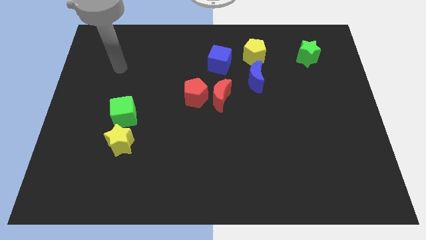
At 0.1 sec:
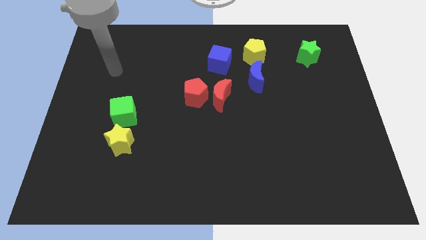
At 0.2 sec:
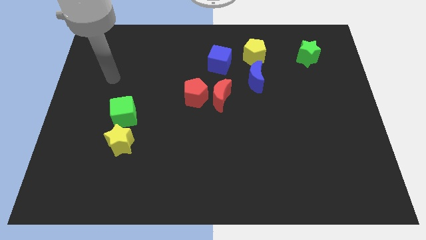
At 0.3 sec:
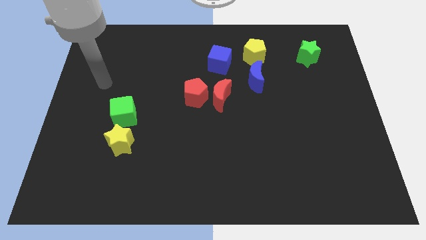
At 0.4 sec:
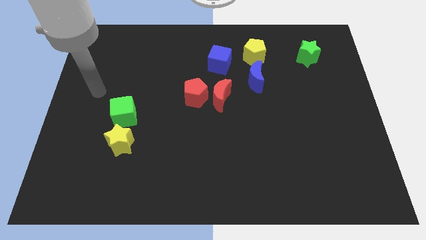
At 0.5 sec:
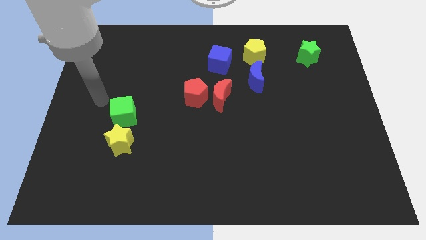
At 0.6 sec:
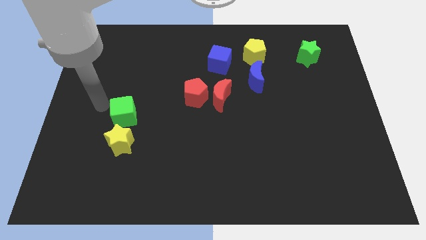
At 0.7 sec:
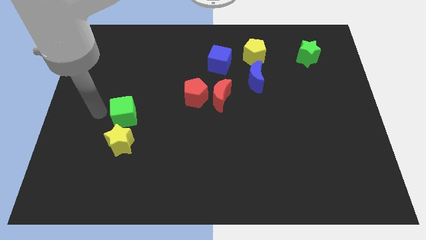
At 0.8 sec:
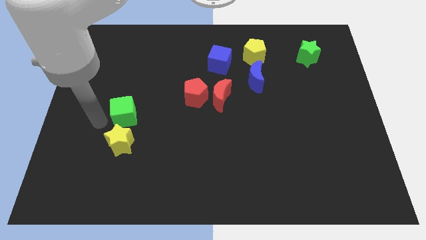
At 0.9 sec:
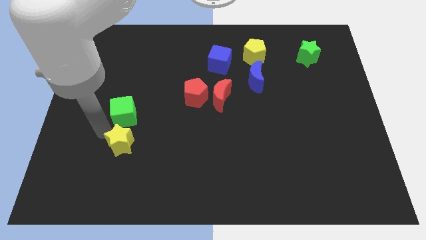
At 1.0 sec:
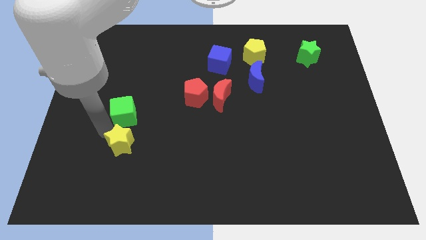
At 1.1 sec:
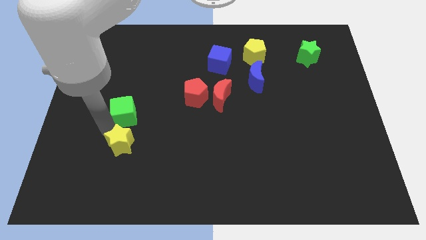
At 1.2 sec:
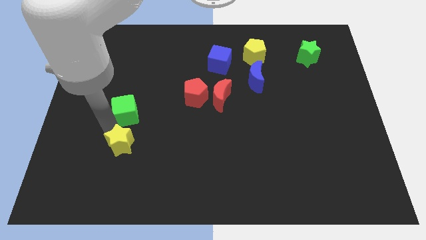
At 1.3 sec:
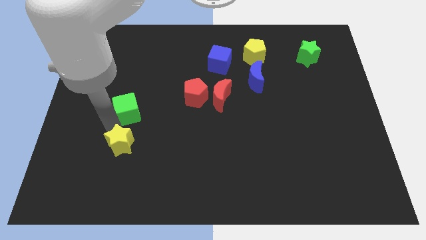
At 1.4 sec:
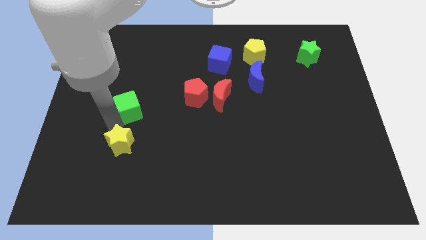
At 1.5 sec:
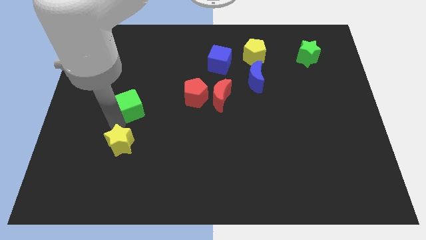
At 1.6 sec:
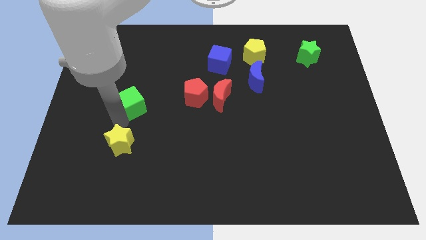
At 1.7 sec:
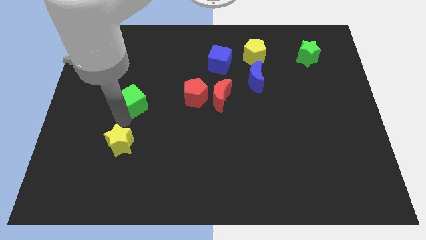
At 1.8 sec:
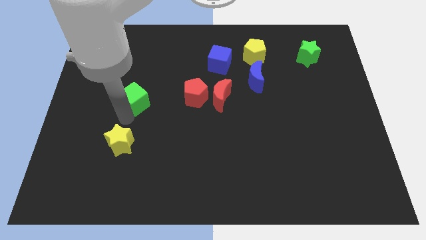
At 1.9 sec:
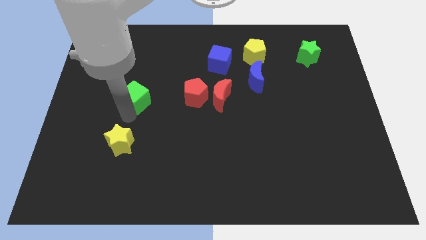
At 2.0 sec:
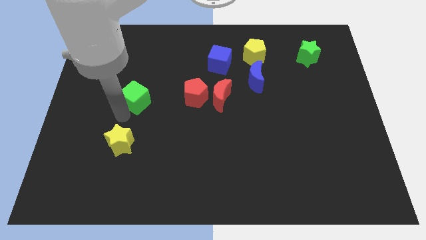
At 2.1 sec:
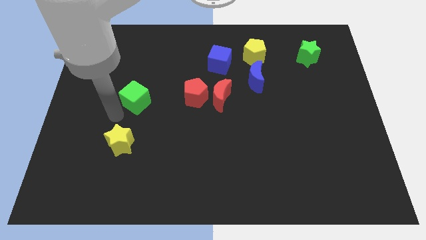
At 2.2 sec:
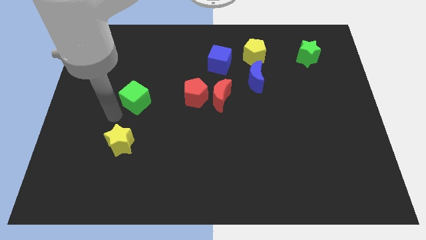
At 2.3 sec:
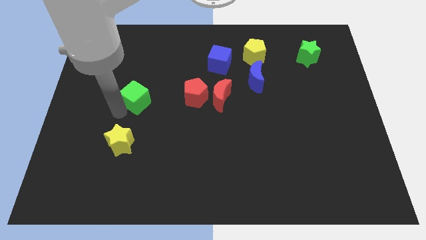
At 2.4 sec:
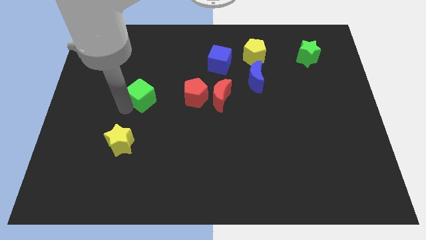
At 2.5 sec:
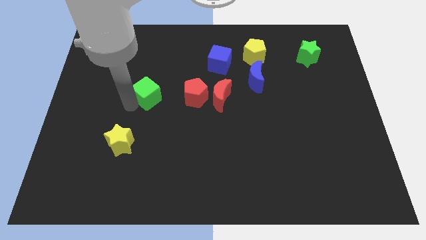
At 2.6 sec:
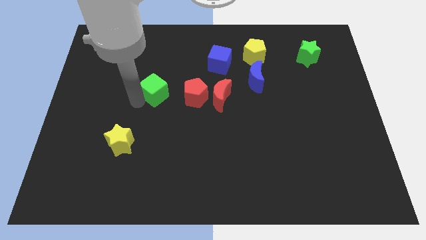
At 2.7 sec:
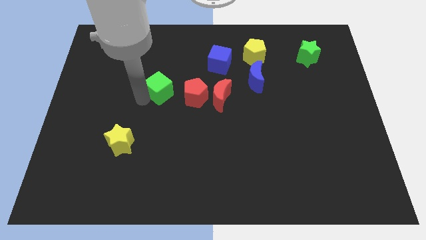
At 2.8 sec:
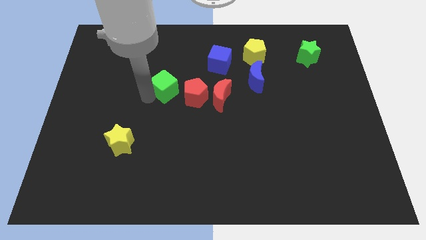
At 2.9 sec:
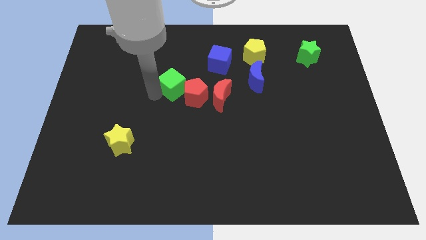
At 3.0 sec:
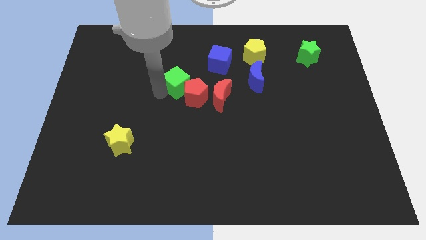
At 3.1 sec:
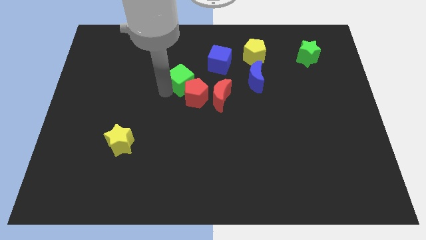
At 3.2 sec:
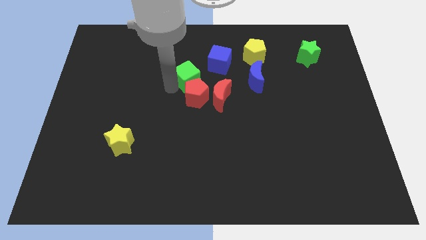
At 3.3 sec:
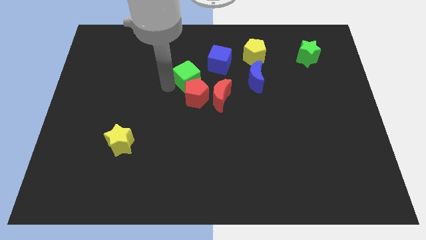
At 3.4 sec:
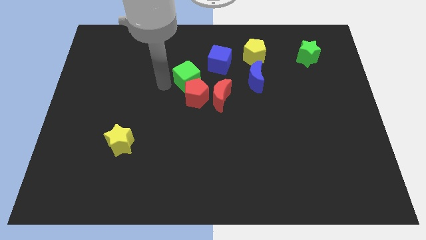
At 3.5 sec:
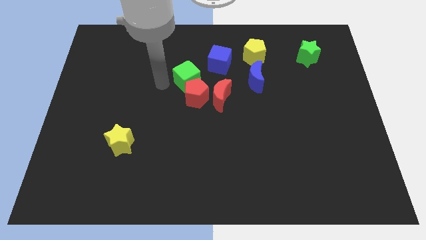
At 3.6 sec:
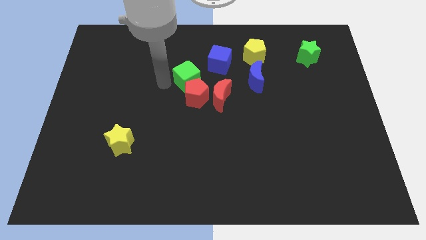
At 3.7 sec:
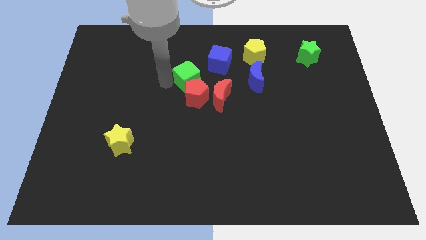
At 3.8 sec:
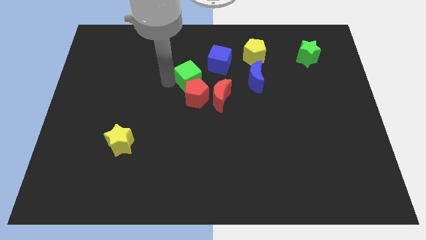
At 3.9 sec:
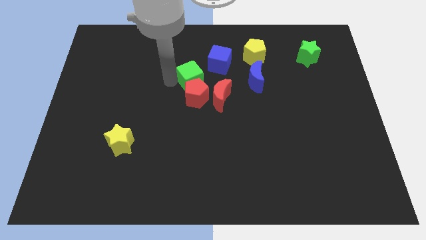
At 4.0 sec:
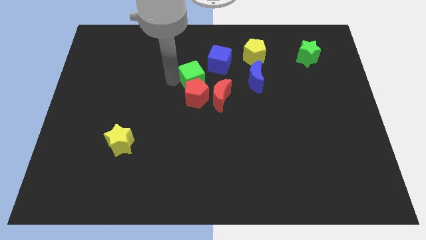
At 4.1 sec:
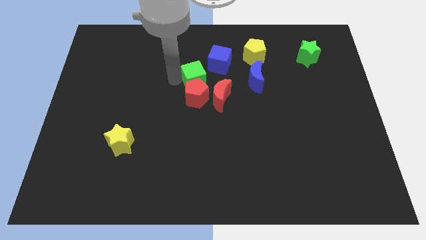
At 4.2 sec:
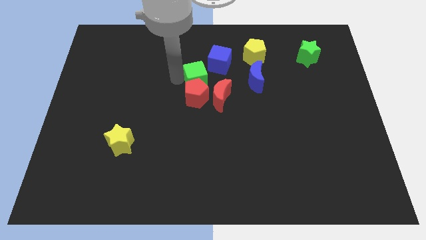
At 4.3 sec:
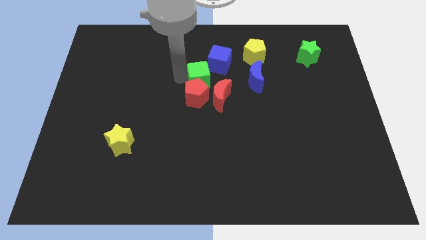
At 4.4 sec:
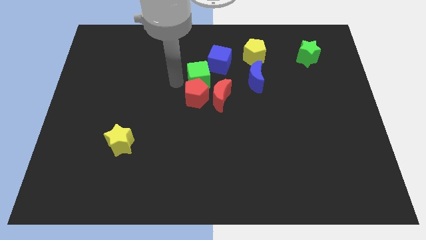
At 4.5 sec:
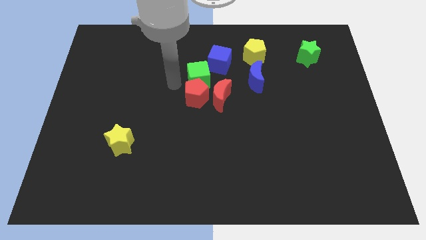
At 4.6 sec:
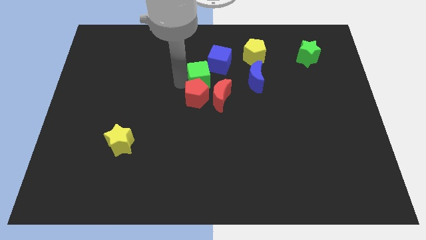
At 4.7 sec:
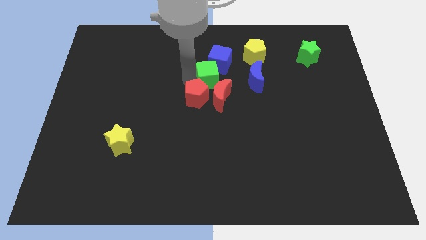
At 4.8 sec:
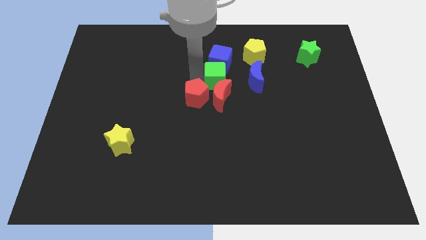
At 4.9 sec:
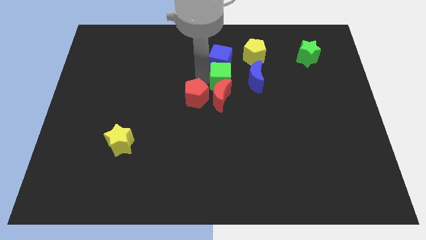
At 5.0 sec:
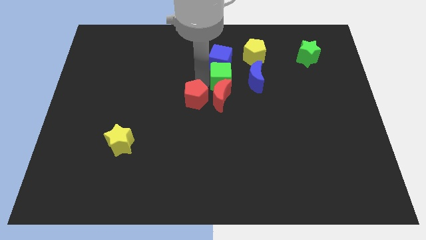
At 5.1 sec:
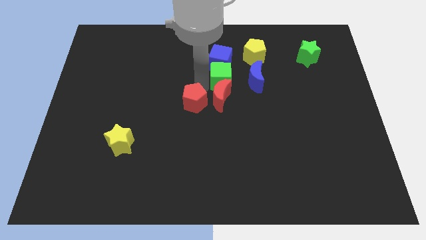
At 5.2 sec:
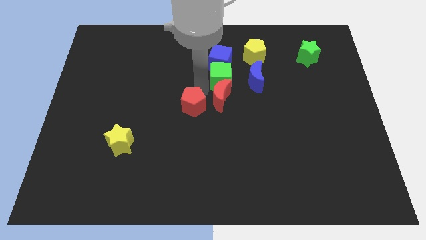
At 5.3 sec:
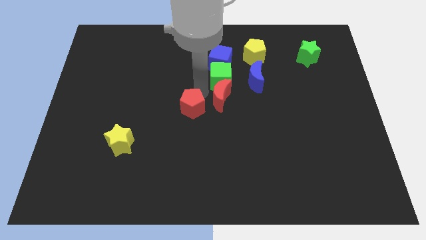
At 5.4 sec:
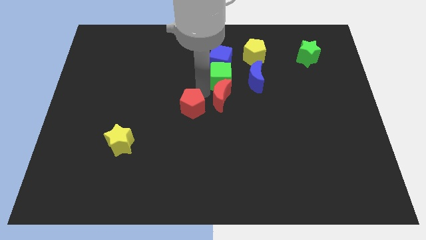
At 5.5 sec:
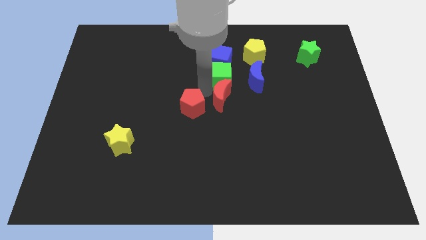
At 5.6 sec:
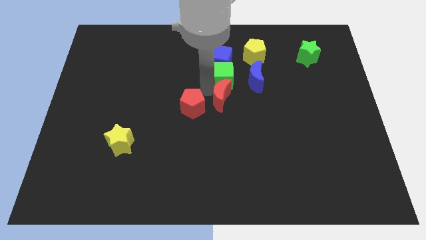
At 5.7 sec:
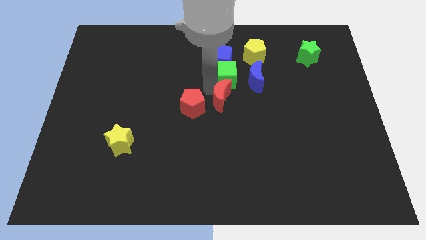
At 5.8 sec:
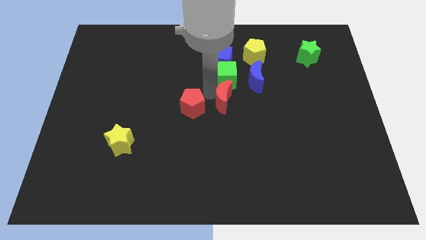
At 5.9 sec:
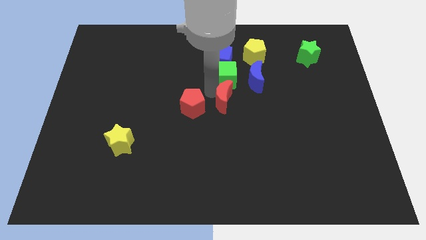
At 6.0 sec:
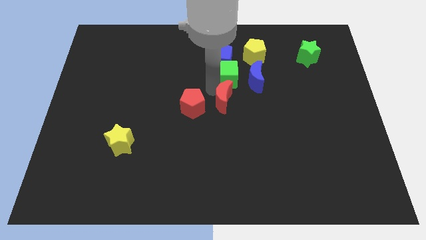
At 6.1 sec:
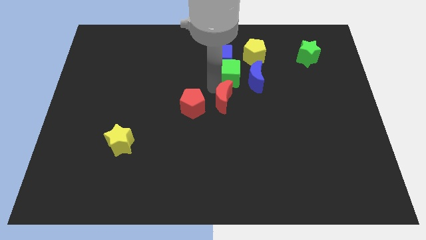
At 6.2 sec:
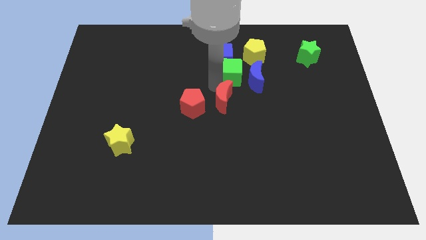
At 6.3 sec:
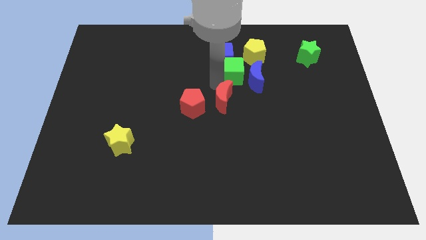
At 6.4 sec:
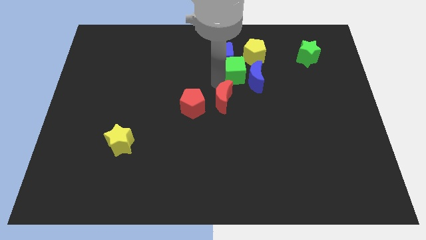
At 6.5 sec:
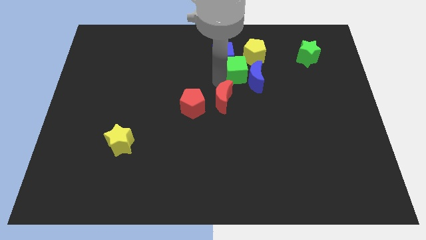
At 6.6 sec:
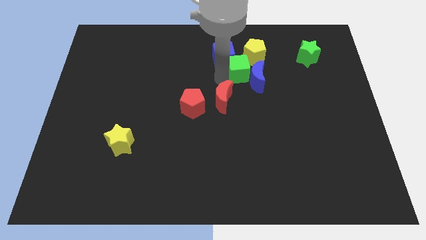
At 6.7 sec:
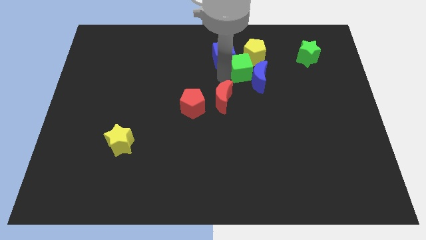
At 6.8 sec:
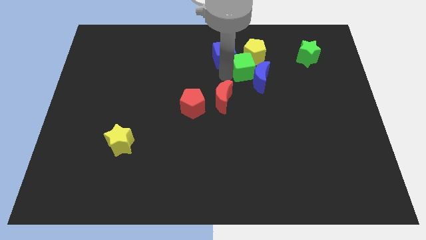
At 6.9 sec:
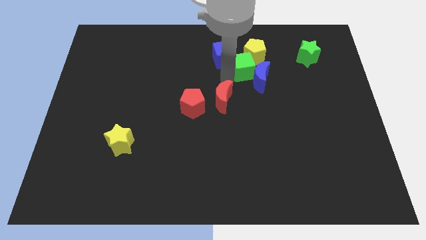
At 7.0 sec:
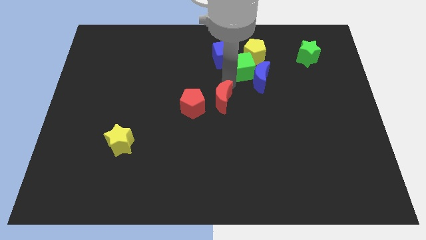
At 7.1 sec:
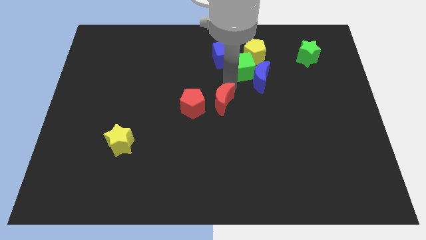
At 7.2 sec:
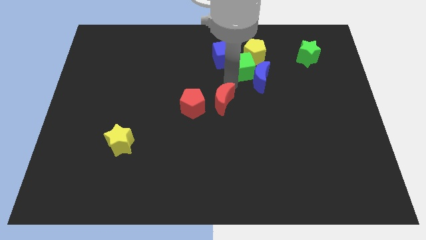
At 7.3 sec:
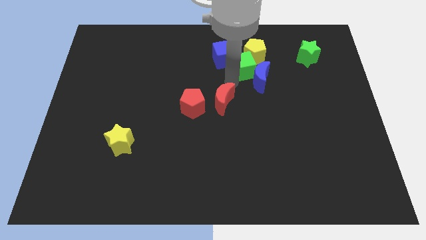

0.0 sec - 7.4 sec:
move the green cube close to the yellow pentagon

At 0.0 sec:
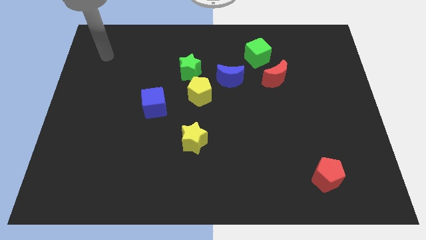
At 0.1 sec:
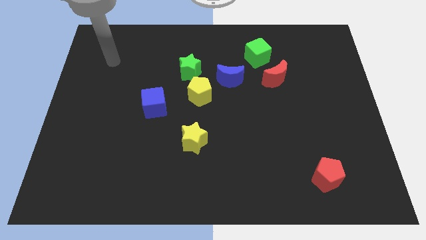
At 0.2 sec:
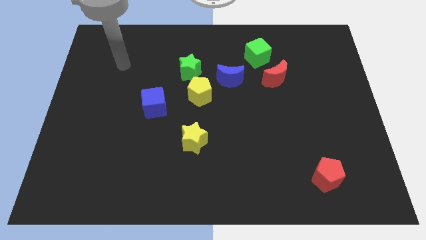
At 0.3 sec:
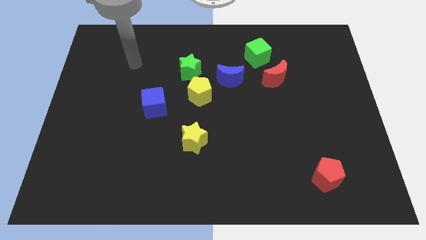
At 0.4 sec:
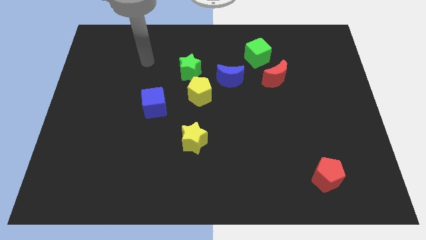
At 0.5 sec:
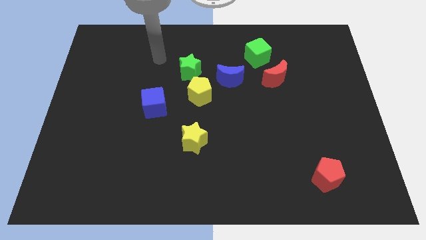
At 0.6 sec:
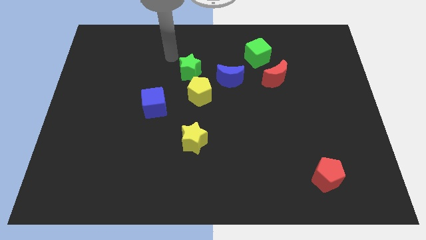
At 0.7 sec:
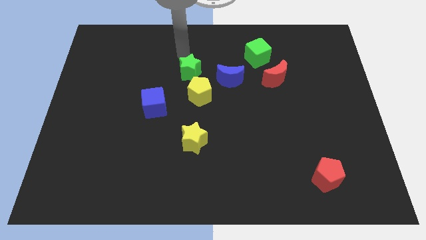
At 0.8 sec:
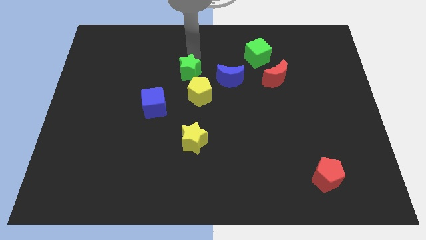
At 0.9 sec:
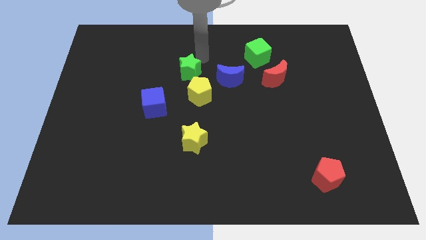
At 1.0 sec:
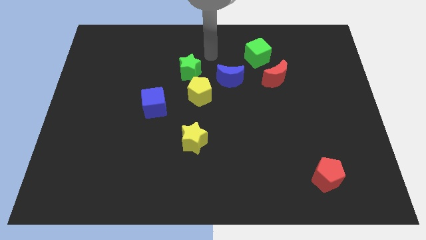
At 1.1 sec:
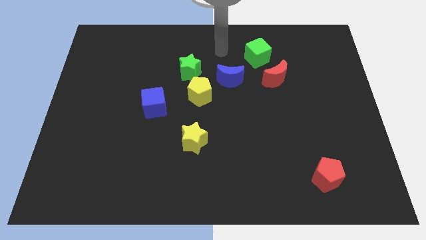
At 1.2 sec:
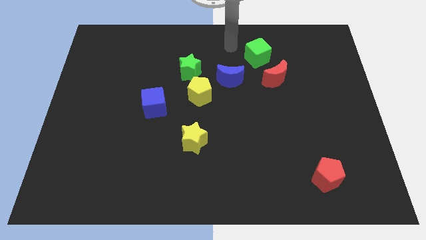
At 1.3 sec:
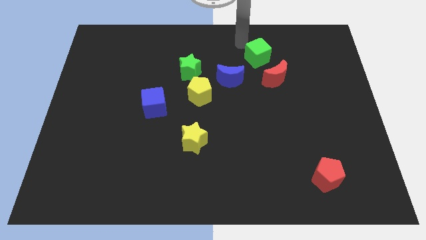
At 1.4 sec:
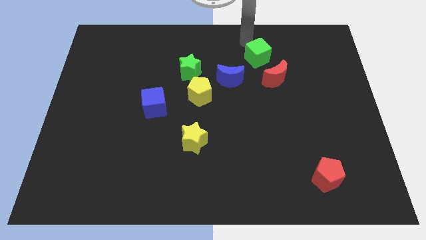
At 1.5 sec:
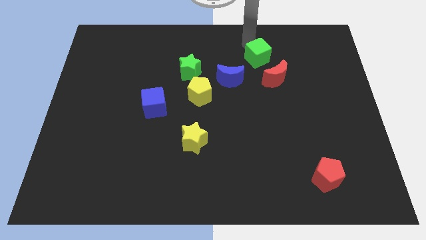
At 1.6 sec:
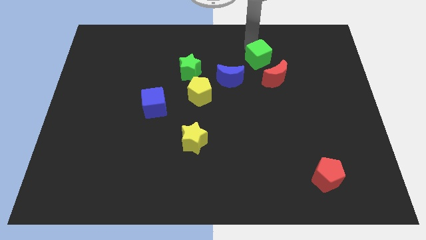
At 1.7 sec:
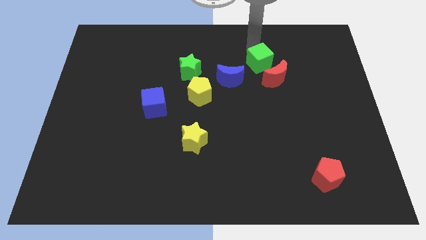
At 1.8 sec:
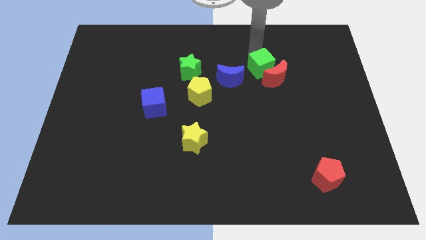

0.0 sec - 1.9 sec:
move the green cube next to the red moon
